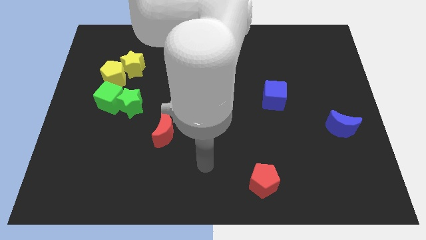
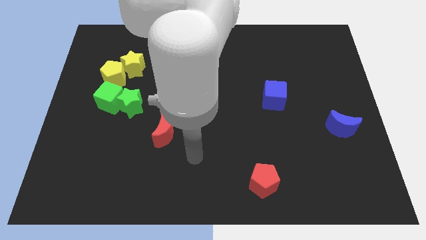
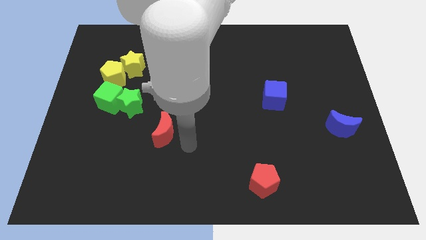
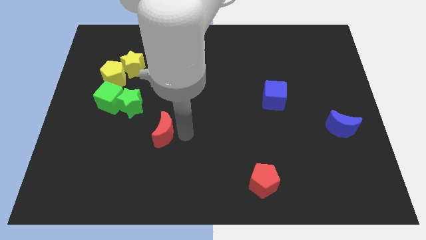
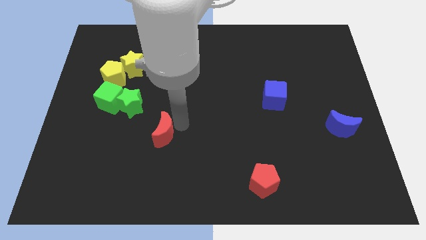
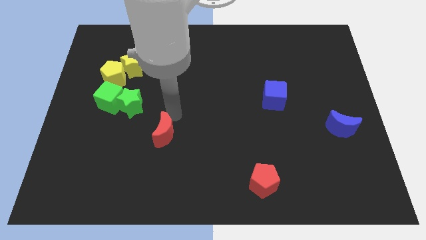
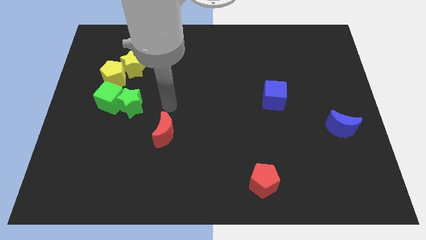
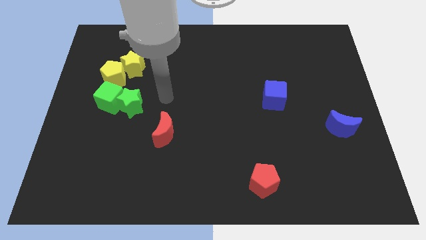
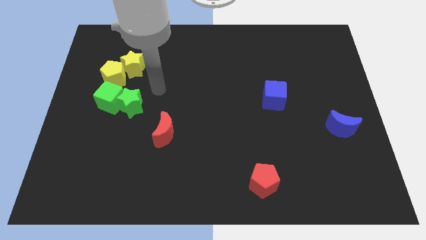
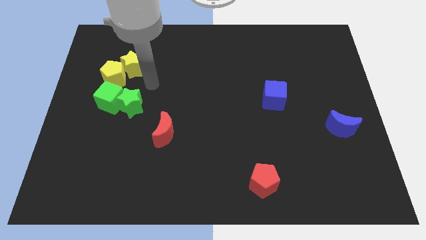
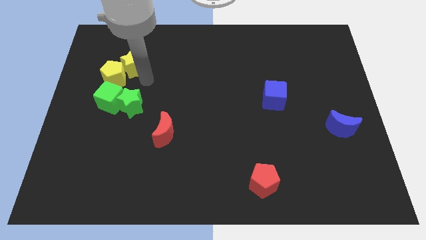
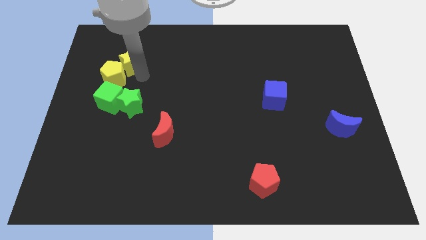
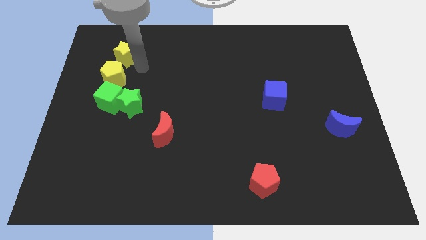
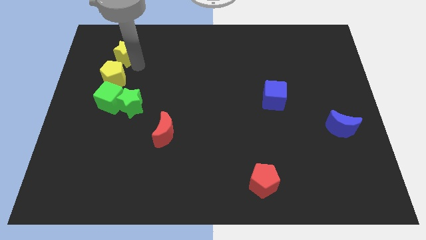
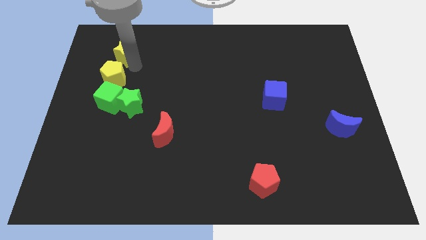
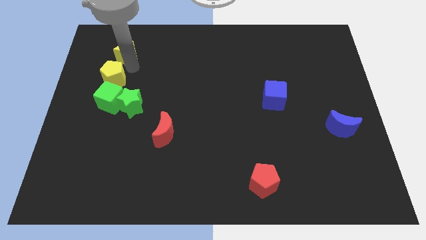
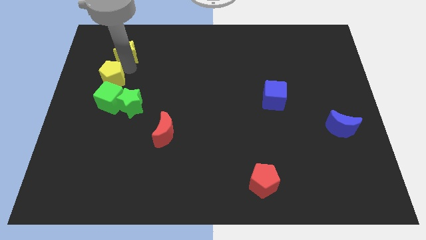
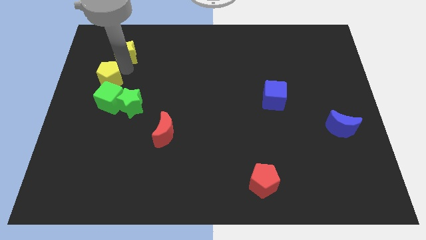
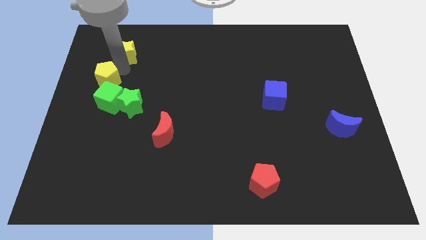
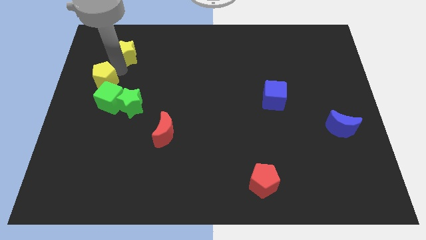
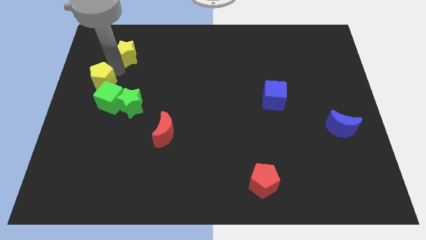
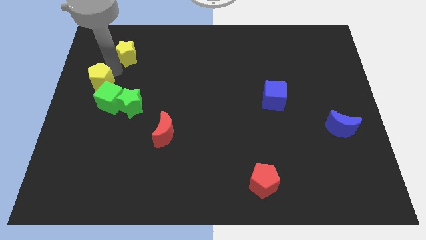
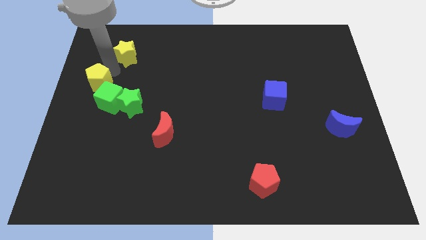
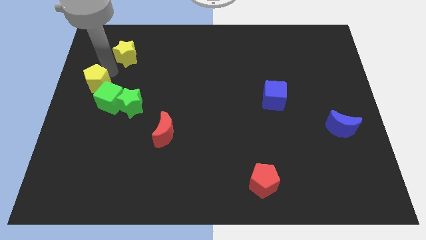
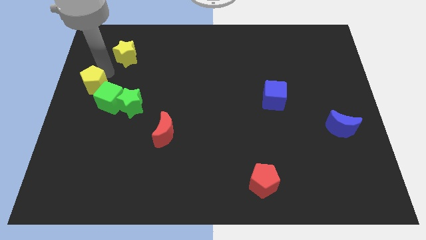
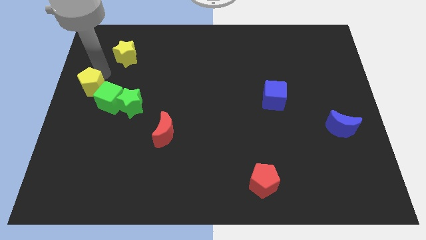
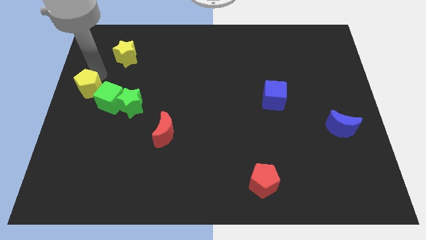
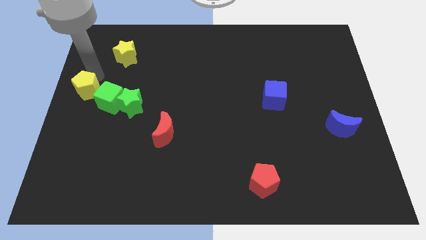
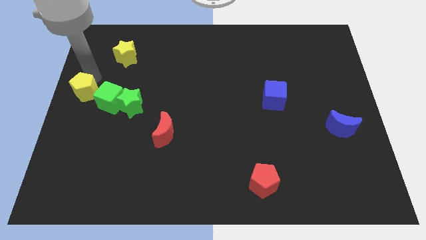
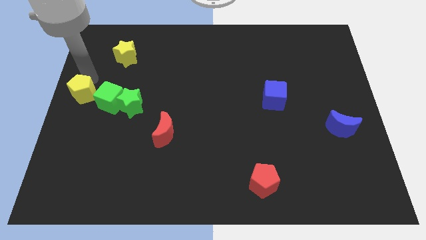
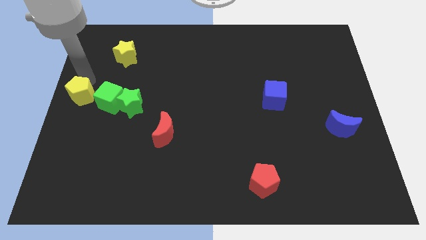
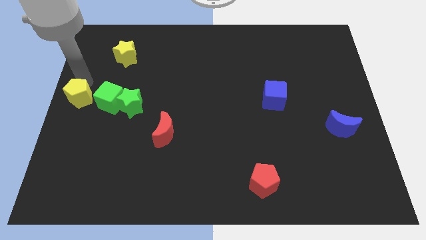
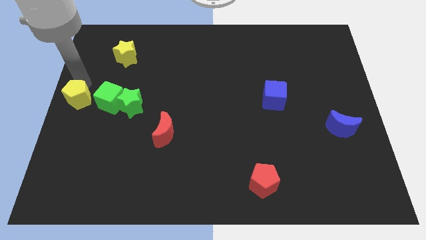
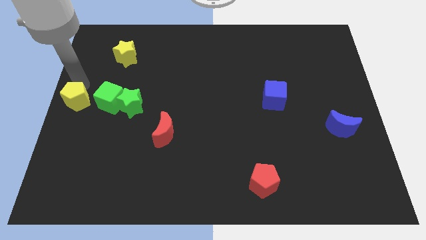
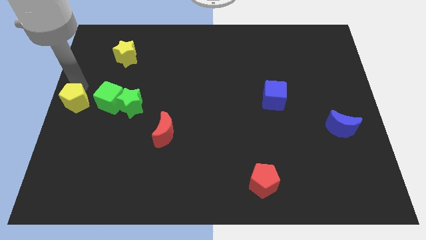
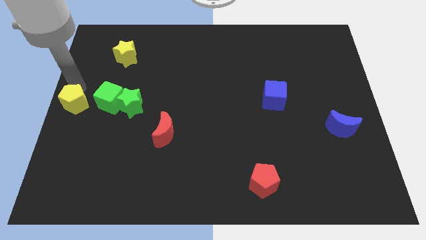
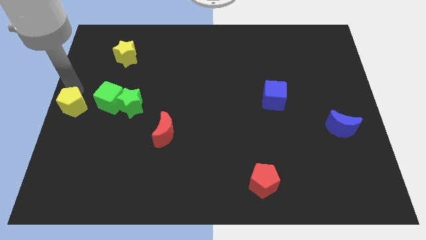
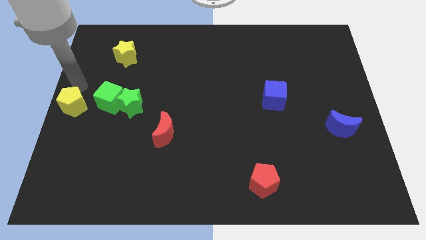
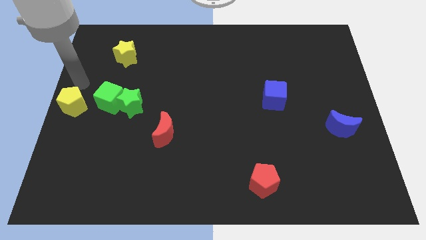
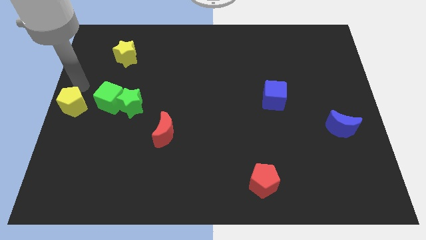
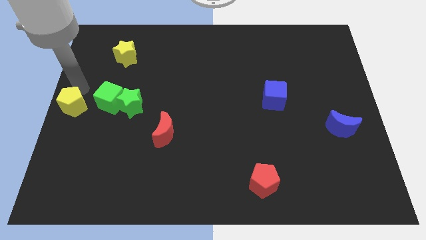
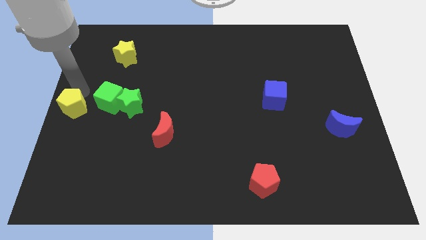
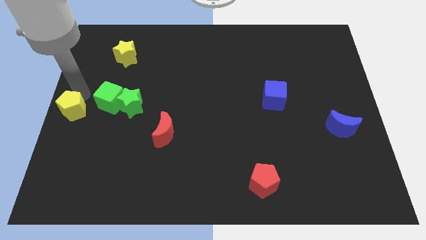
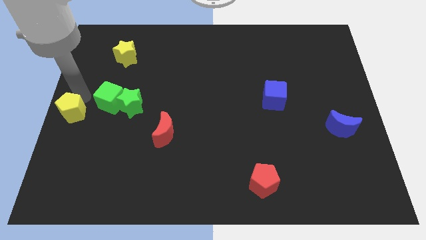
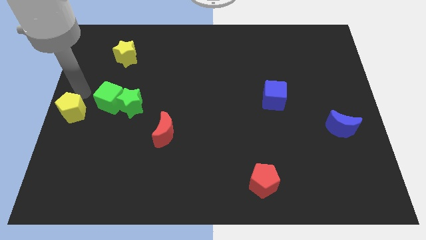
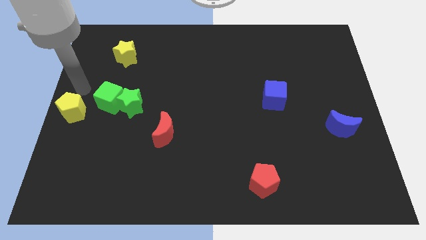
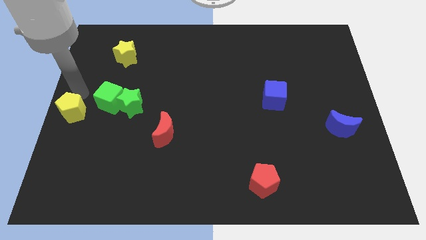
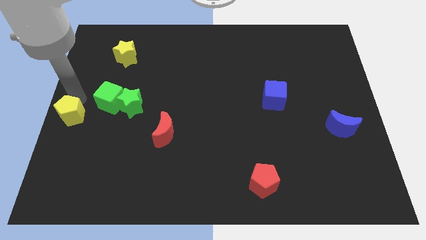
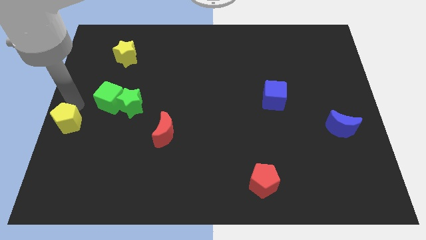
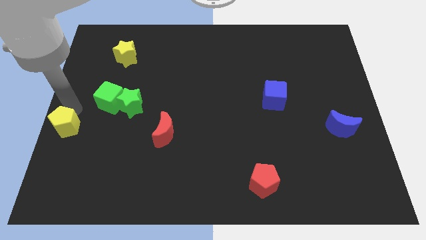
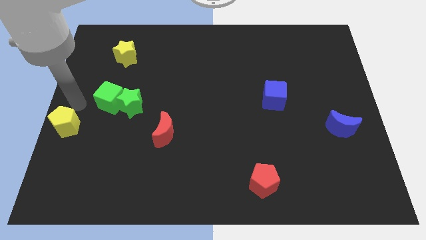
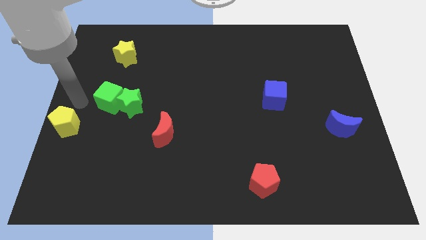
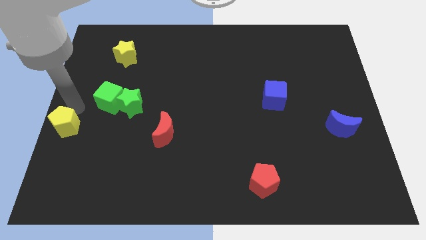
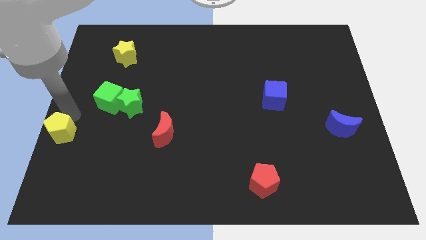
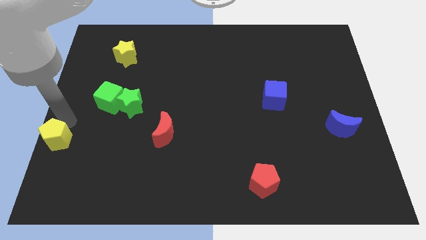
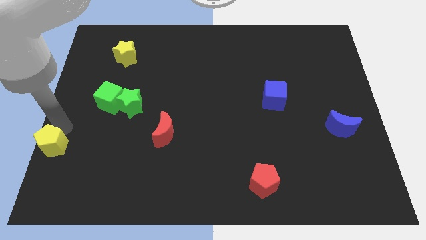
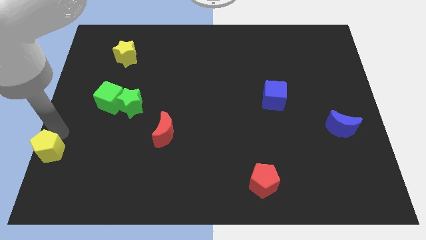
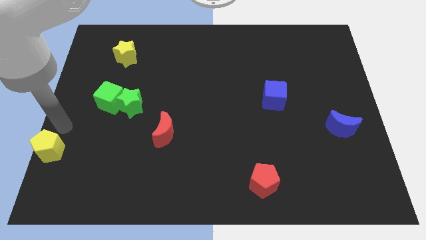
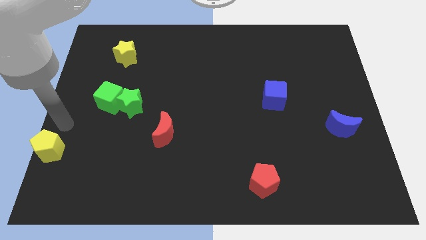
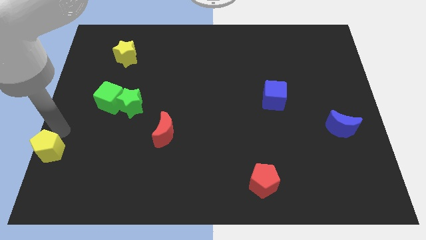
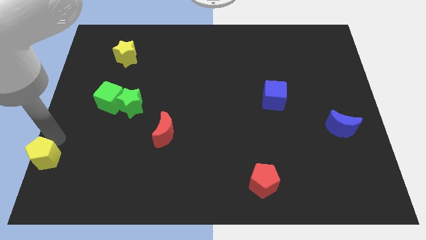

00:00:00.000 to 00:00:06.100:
move the yellow pentagon to the lower left corner
